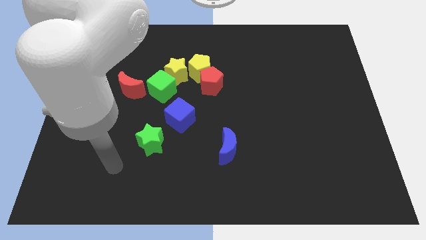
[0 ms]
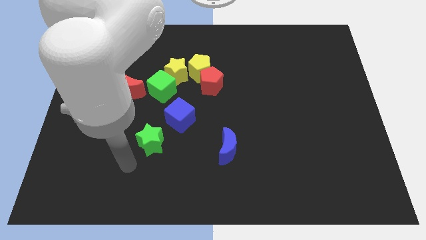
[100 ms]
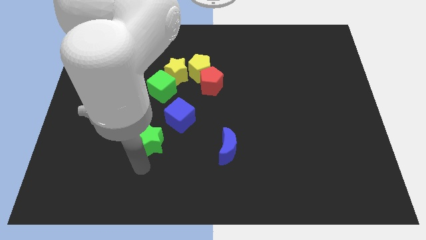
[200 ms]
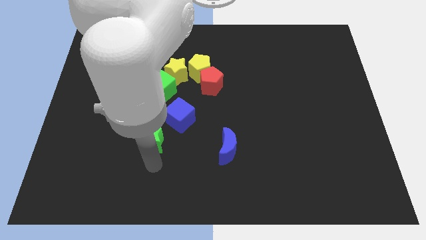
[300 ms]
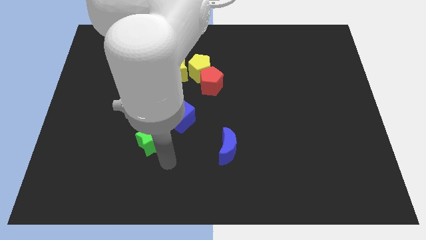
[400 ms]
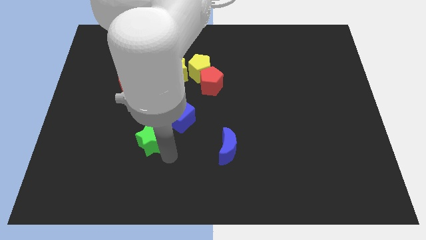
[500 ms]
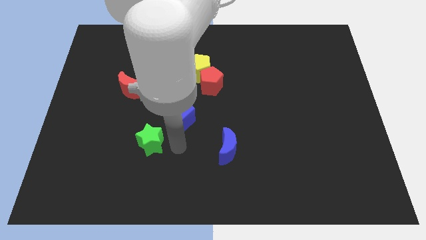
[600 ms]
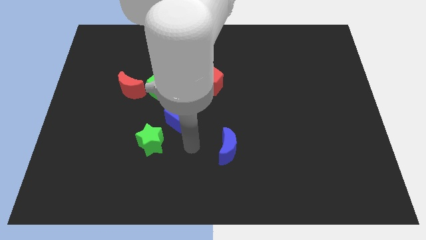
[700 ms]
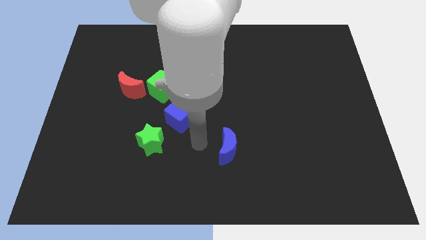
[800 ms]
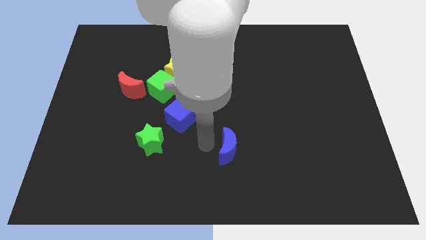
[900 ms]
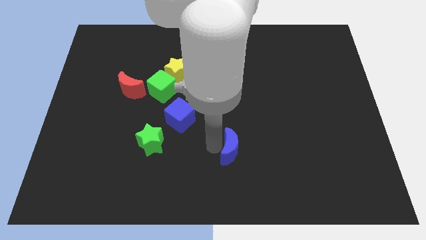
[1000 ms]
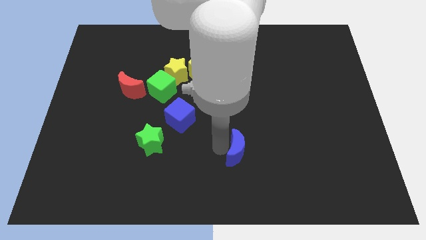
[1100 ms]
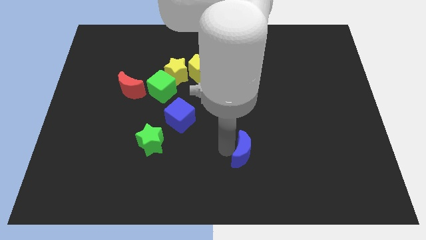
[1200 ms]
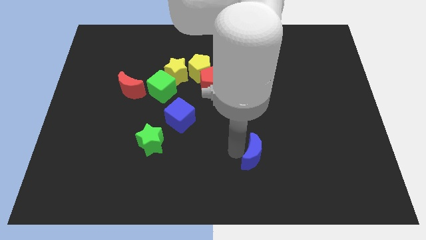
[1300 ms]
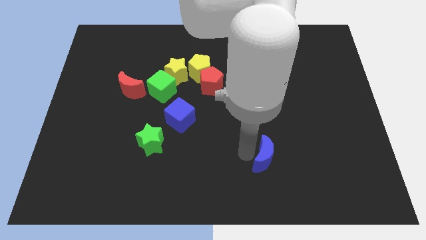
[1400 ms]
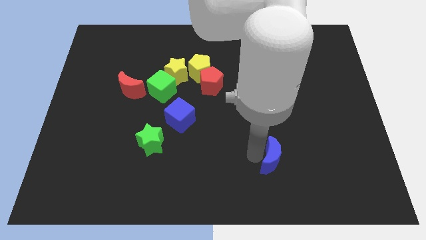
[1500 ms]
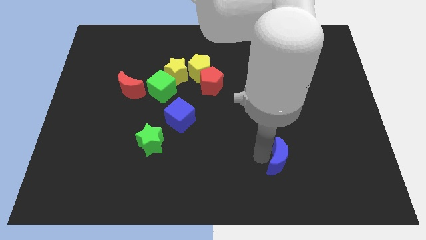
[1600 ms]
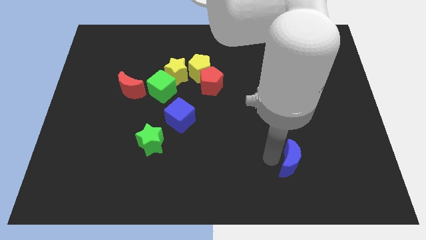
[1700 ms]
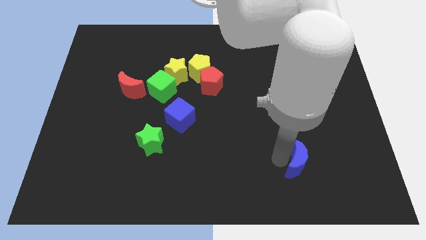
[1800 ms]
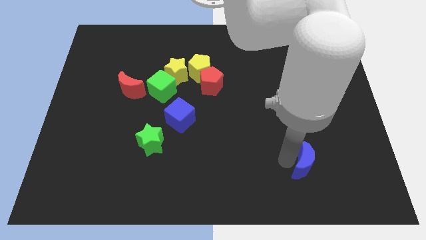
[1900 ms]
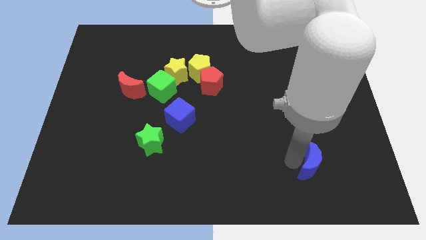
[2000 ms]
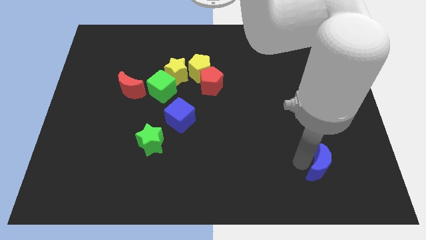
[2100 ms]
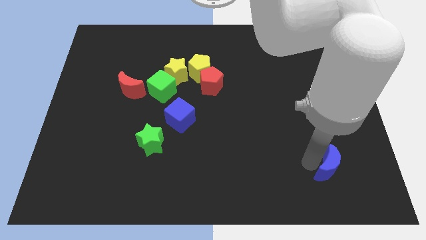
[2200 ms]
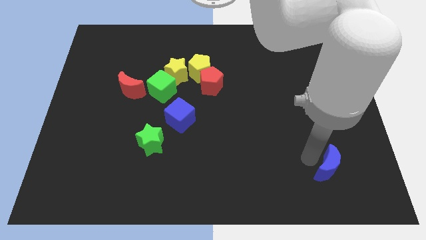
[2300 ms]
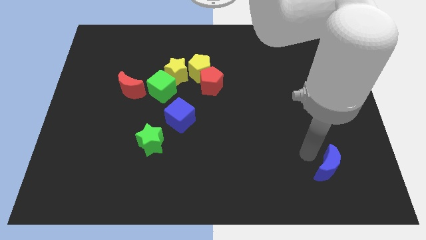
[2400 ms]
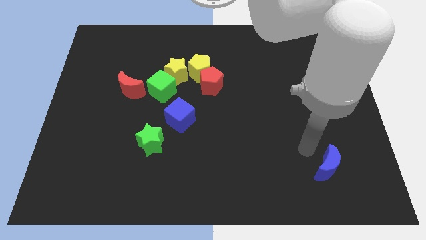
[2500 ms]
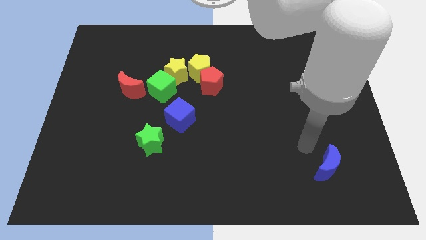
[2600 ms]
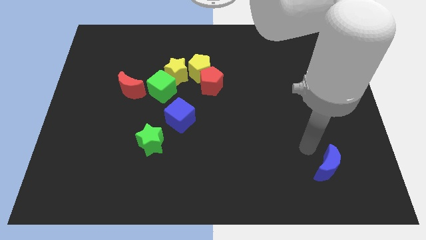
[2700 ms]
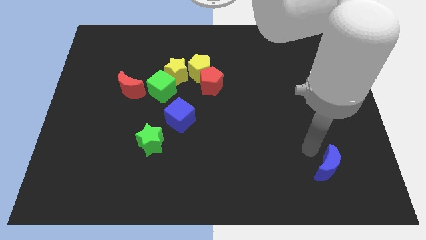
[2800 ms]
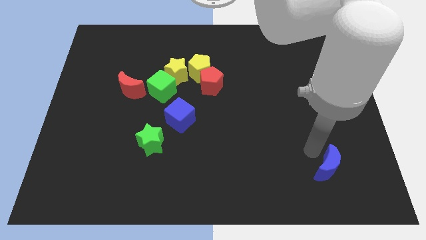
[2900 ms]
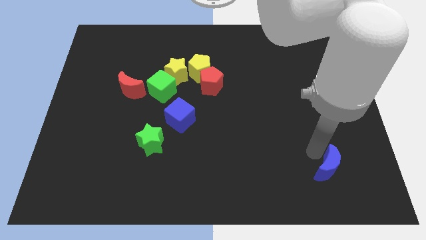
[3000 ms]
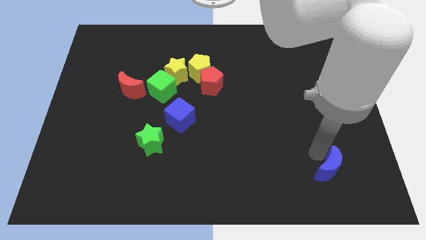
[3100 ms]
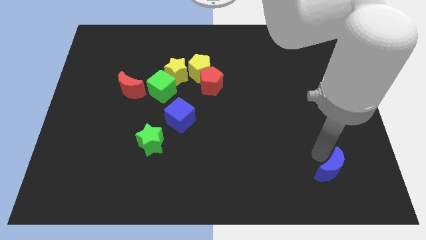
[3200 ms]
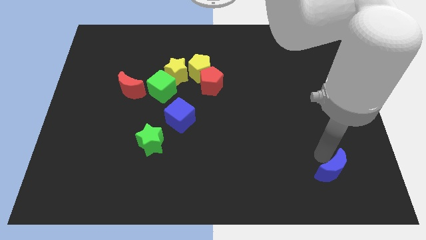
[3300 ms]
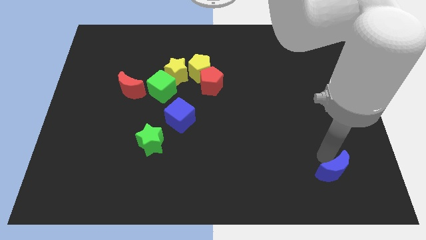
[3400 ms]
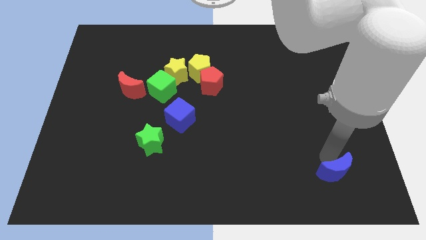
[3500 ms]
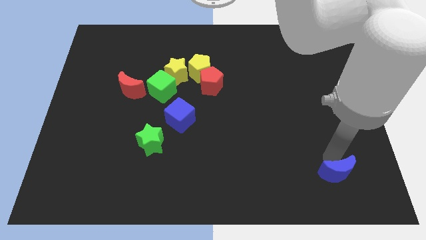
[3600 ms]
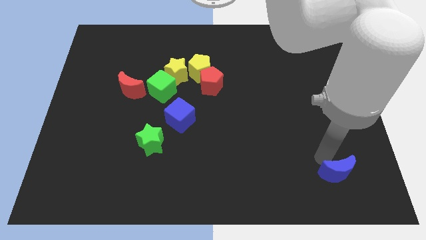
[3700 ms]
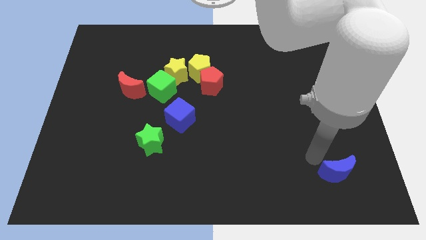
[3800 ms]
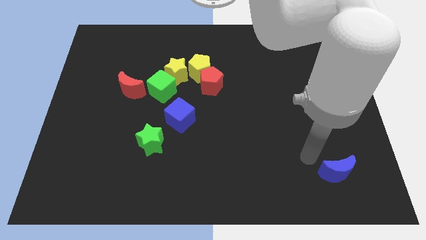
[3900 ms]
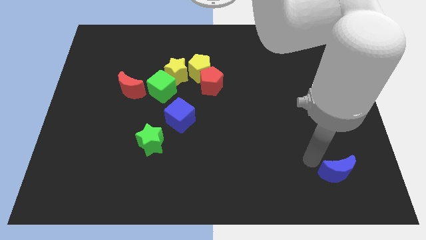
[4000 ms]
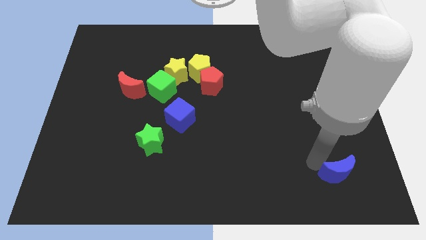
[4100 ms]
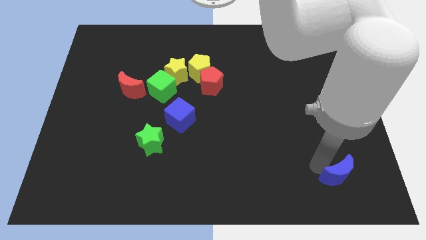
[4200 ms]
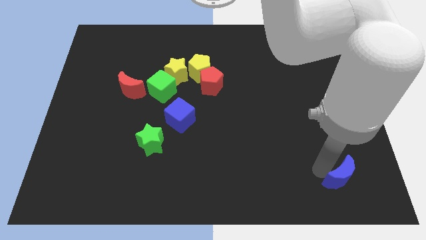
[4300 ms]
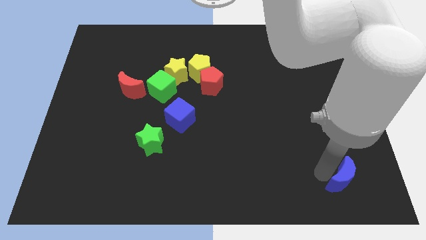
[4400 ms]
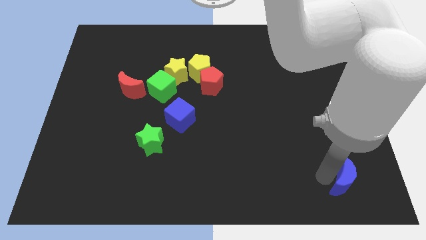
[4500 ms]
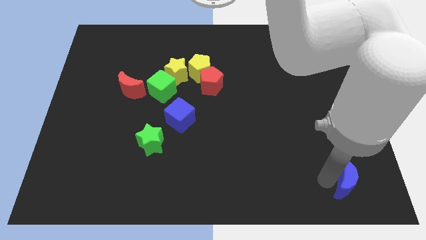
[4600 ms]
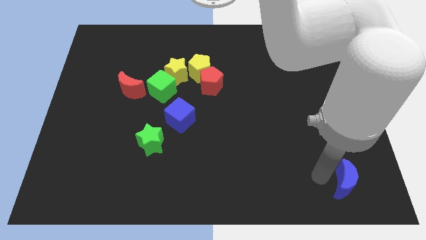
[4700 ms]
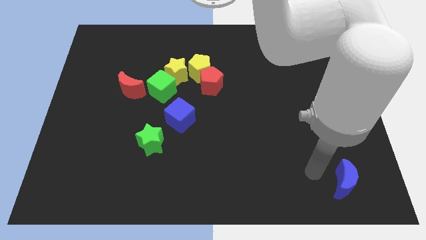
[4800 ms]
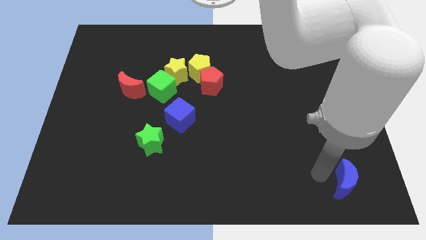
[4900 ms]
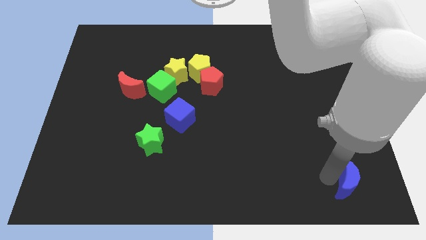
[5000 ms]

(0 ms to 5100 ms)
push the blue moon to the bottom right of the board

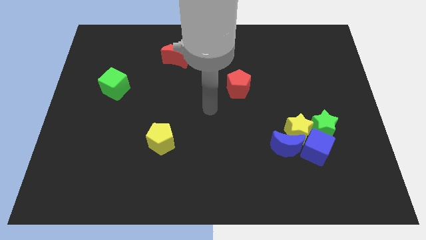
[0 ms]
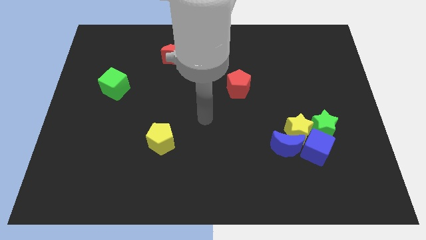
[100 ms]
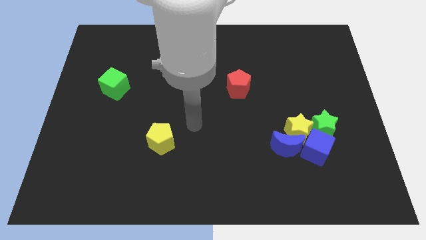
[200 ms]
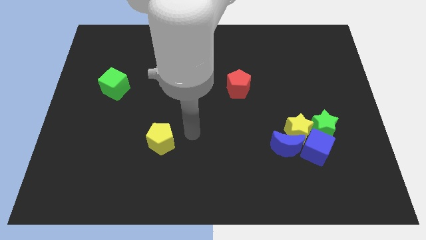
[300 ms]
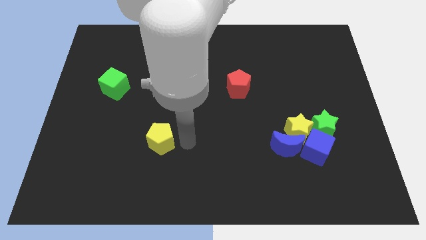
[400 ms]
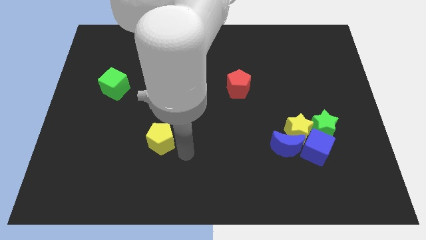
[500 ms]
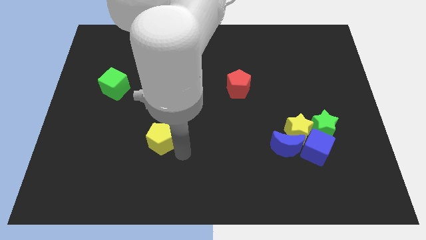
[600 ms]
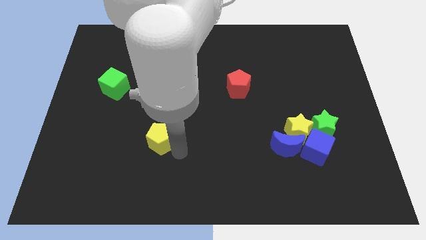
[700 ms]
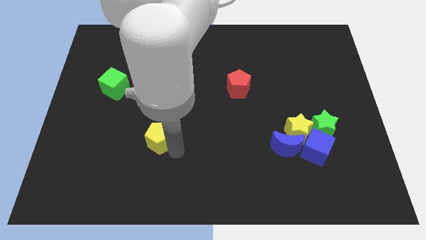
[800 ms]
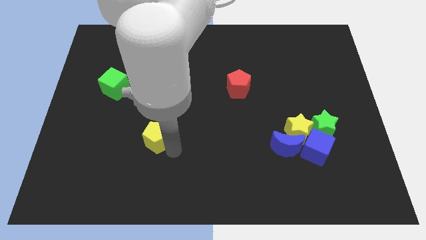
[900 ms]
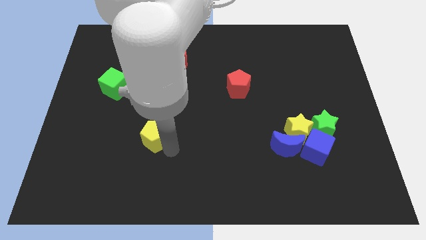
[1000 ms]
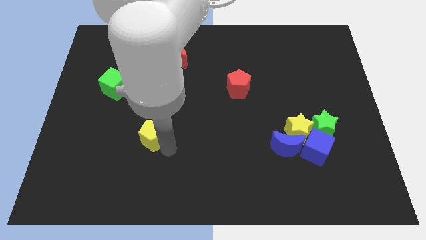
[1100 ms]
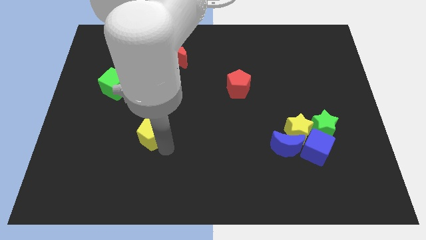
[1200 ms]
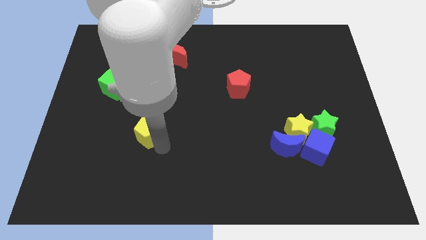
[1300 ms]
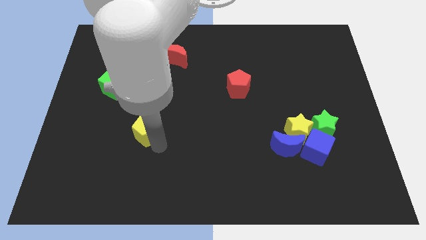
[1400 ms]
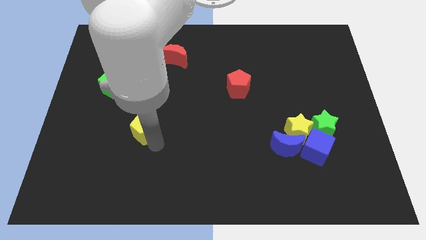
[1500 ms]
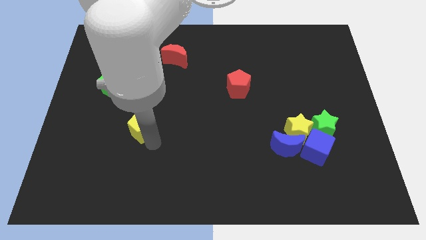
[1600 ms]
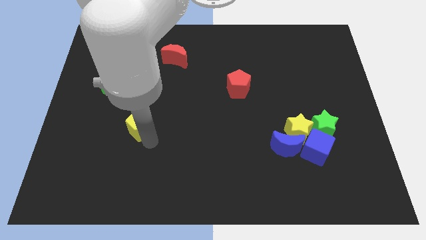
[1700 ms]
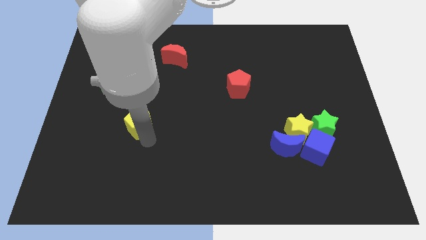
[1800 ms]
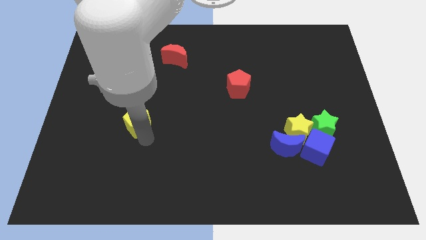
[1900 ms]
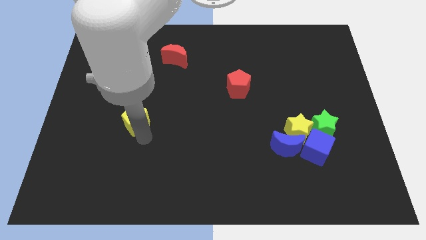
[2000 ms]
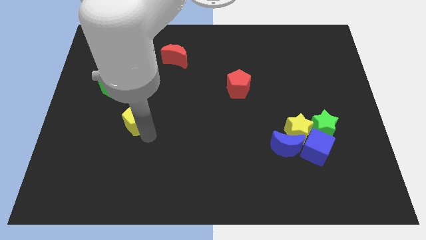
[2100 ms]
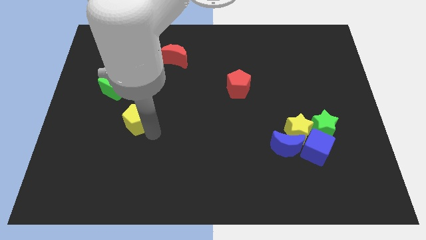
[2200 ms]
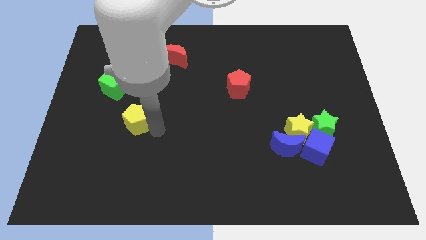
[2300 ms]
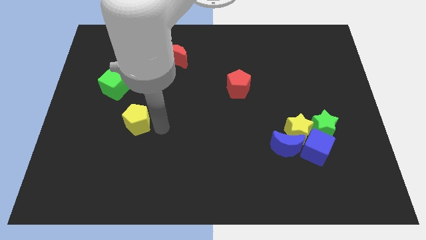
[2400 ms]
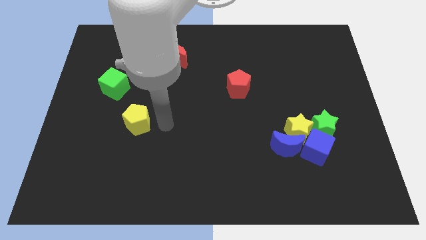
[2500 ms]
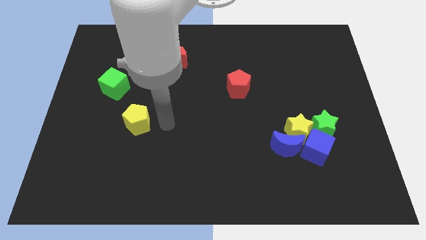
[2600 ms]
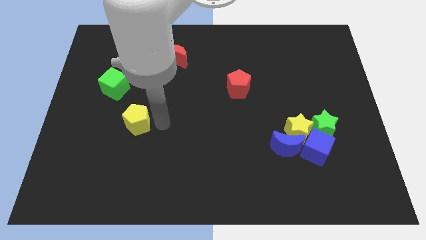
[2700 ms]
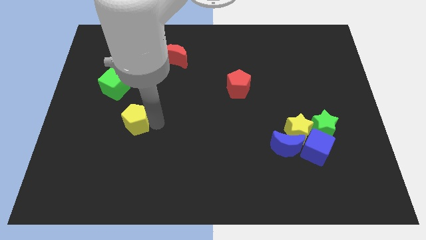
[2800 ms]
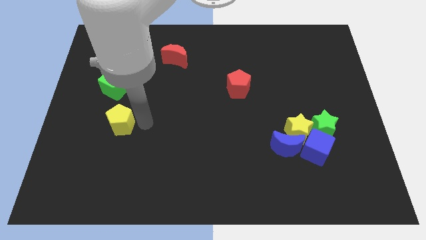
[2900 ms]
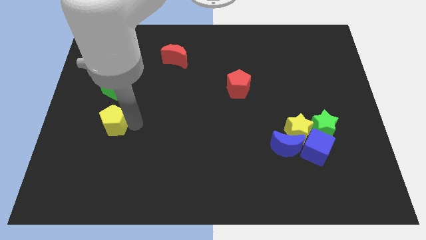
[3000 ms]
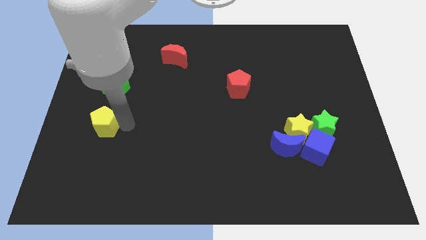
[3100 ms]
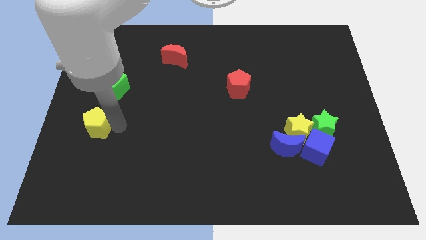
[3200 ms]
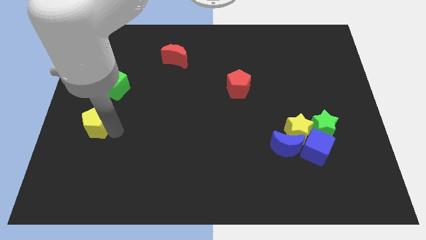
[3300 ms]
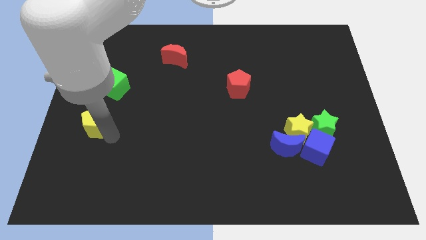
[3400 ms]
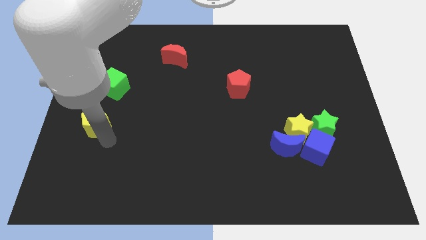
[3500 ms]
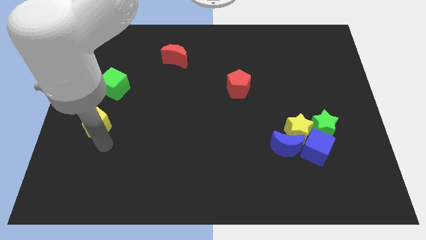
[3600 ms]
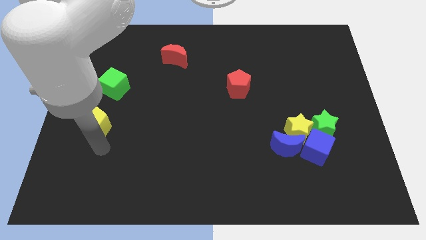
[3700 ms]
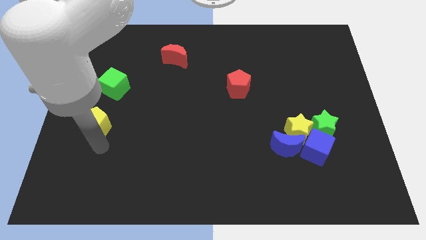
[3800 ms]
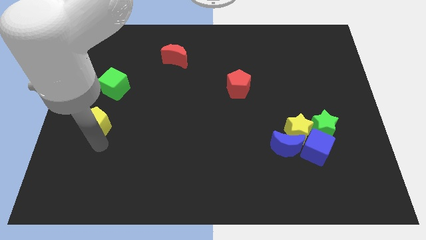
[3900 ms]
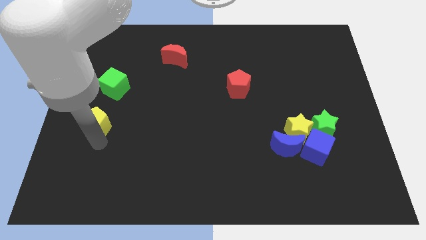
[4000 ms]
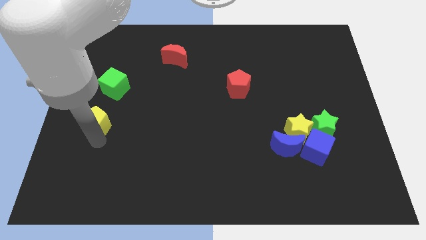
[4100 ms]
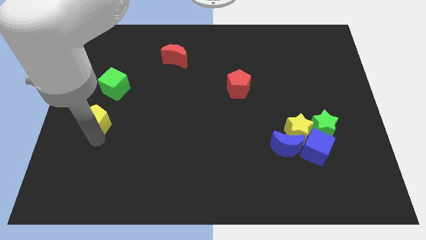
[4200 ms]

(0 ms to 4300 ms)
move the yellow pentagon to the left side of the board
